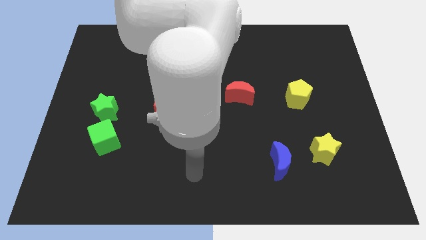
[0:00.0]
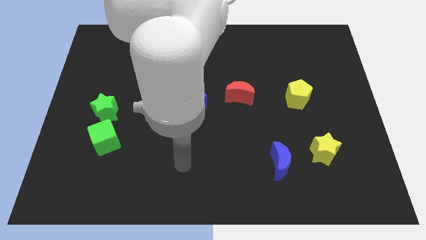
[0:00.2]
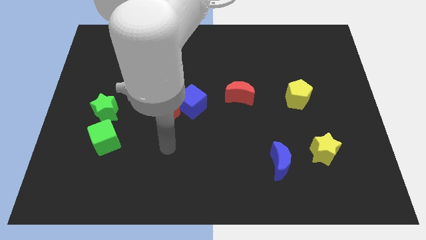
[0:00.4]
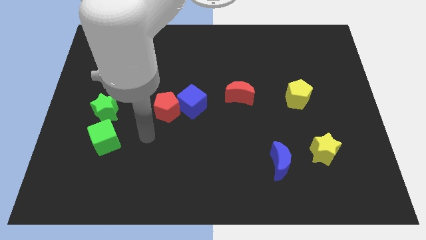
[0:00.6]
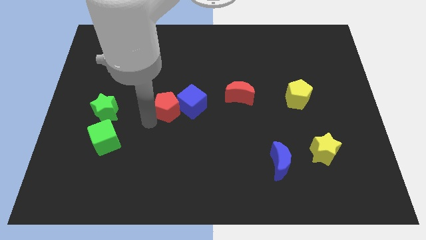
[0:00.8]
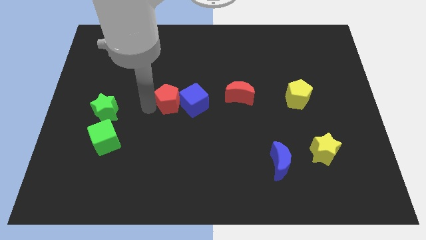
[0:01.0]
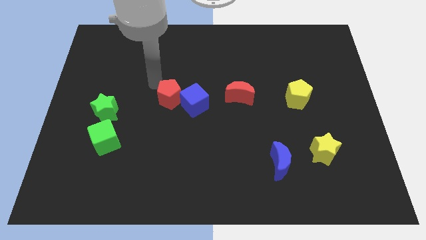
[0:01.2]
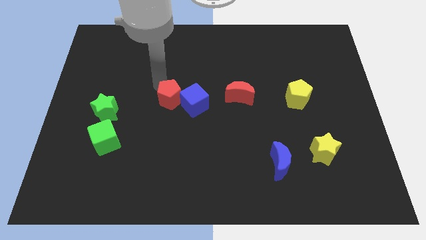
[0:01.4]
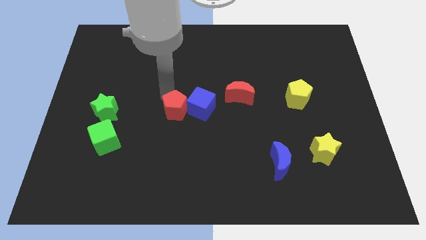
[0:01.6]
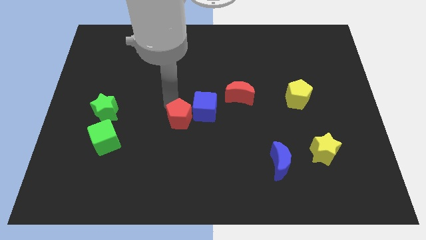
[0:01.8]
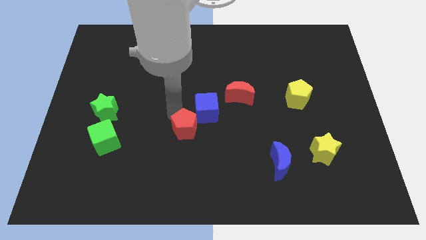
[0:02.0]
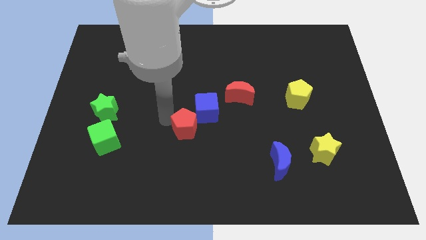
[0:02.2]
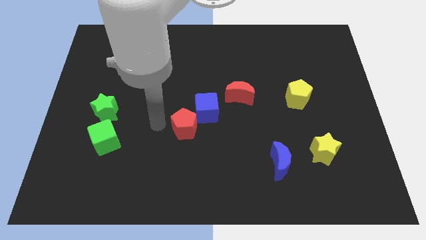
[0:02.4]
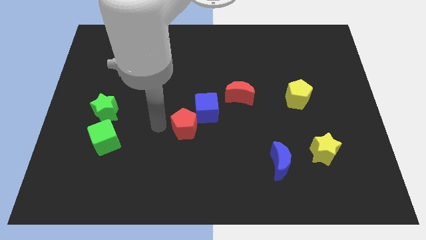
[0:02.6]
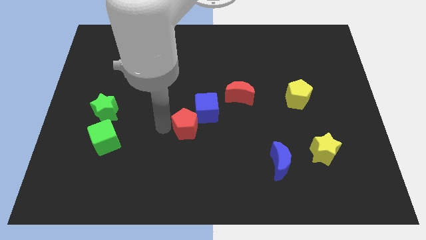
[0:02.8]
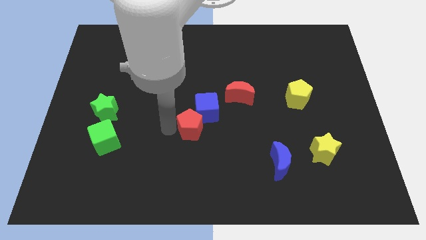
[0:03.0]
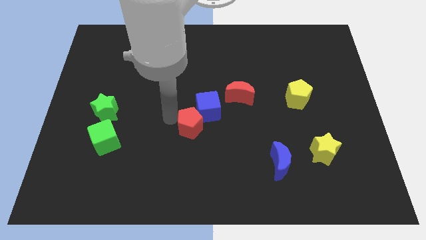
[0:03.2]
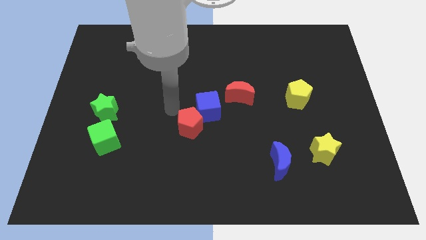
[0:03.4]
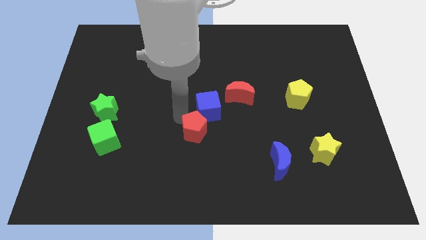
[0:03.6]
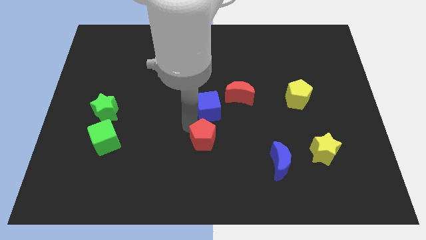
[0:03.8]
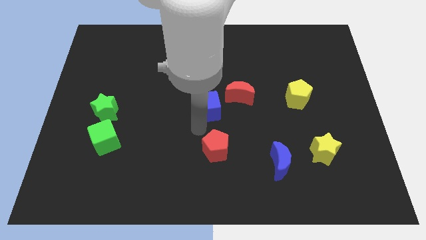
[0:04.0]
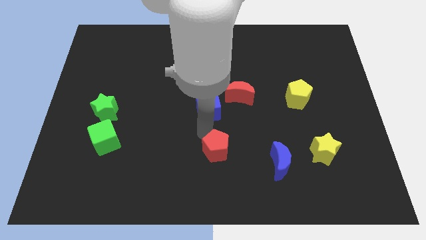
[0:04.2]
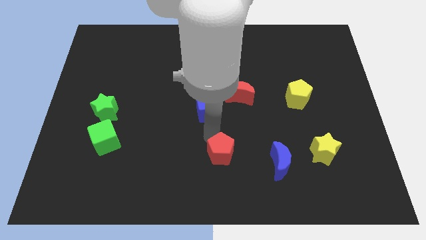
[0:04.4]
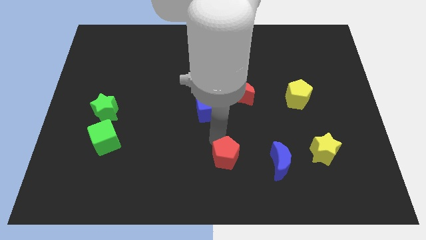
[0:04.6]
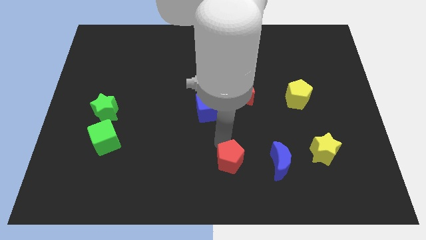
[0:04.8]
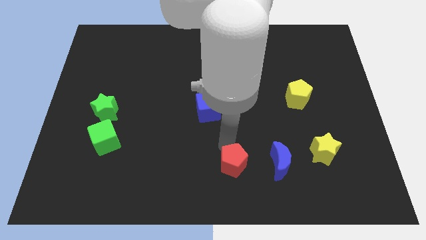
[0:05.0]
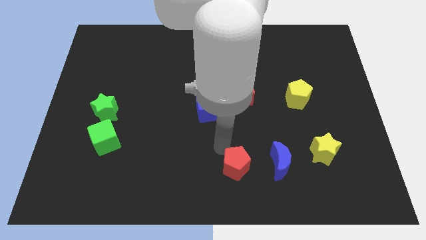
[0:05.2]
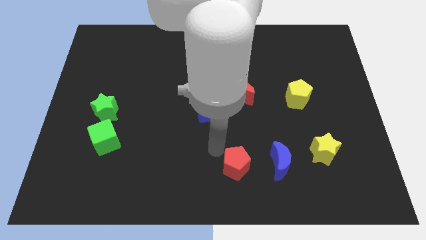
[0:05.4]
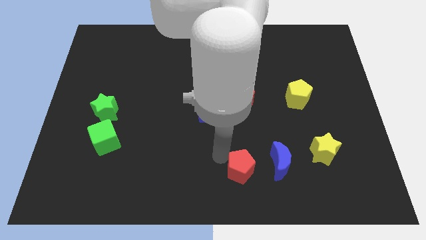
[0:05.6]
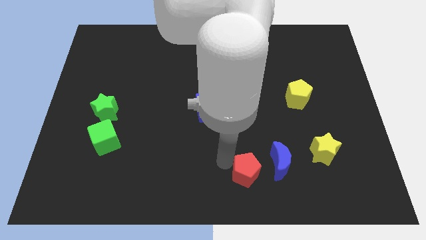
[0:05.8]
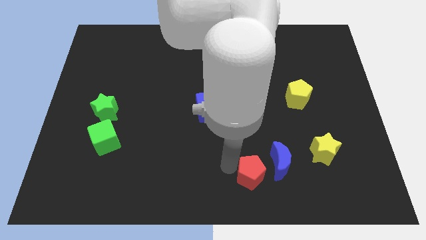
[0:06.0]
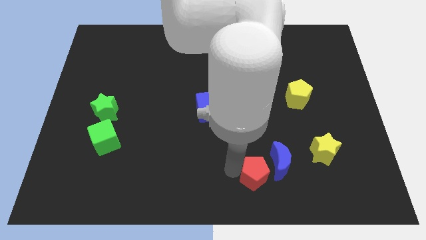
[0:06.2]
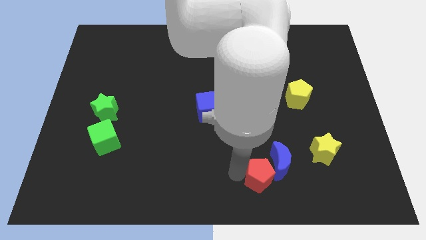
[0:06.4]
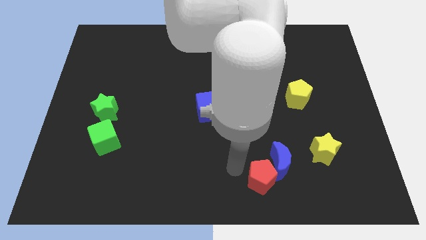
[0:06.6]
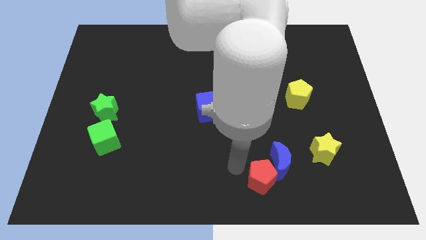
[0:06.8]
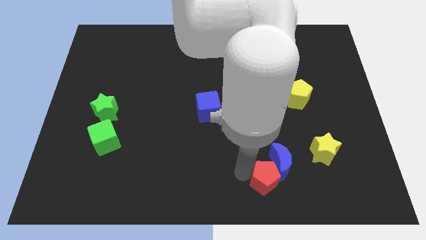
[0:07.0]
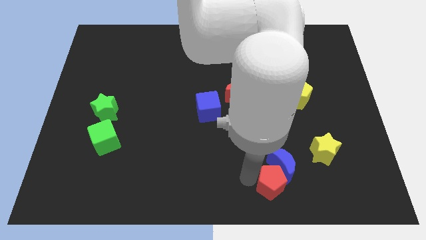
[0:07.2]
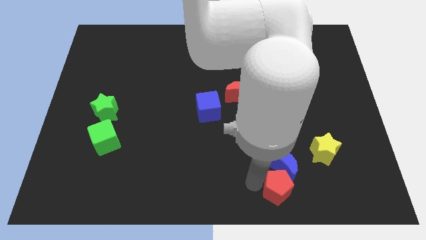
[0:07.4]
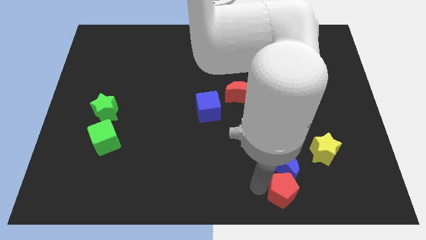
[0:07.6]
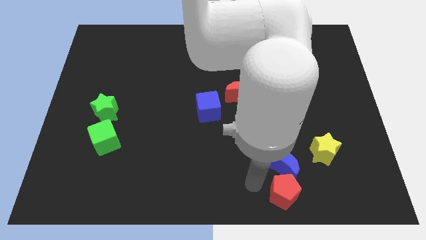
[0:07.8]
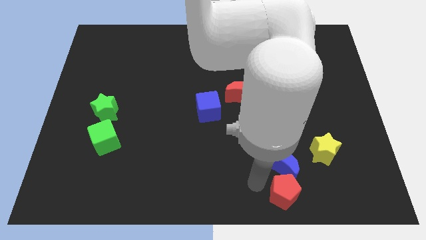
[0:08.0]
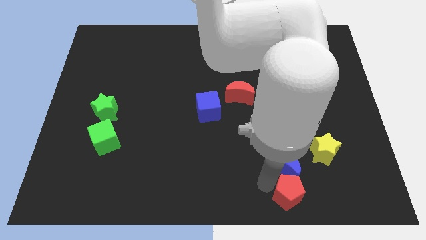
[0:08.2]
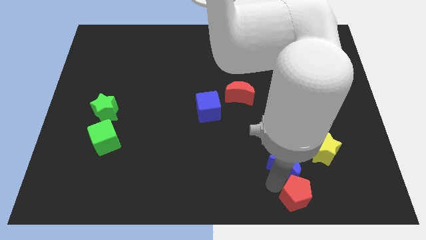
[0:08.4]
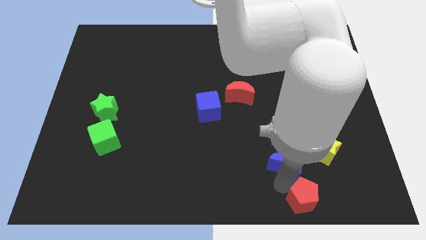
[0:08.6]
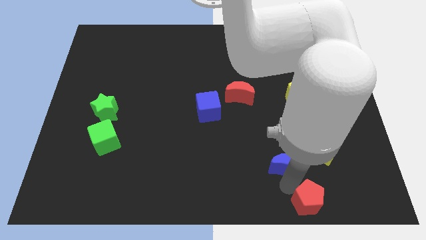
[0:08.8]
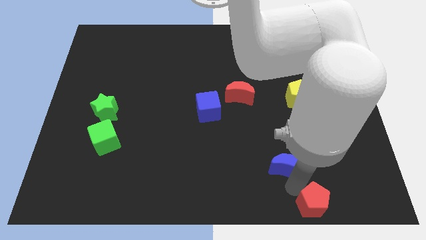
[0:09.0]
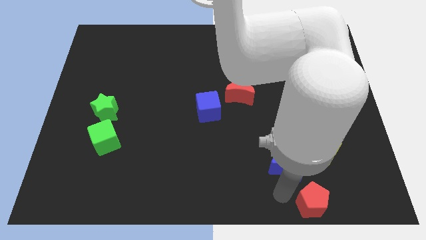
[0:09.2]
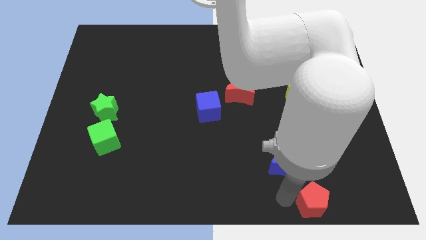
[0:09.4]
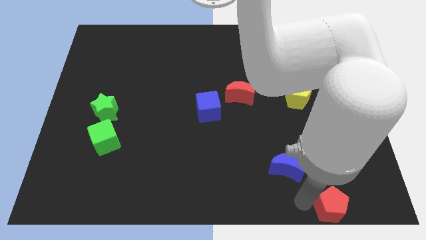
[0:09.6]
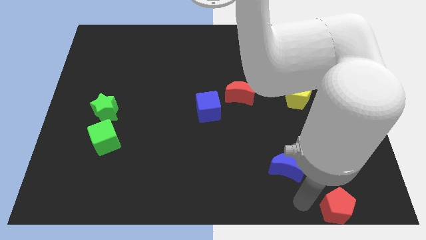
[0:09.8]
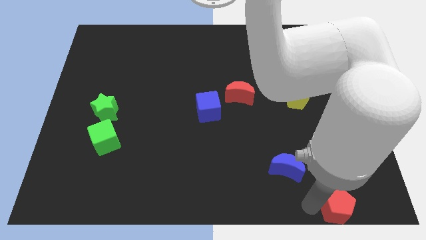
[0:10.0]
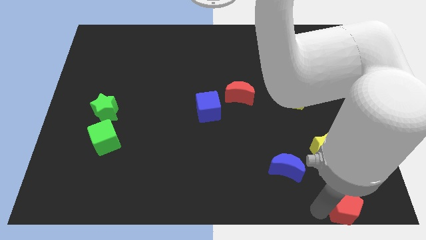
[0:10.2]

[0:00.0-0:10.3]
move the red pentagon to the bottom right
